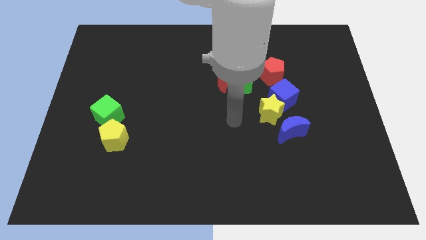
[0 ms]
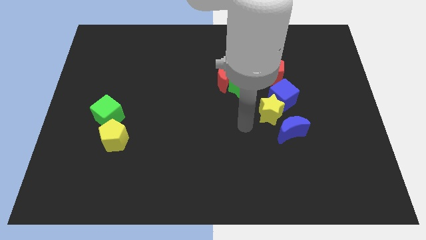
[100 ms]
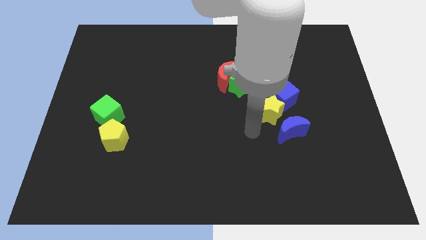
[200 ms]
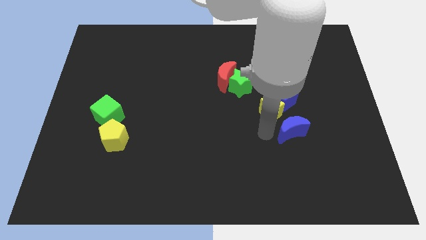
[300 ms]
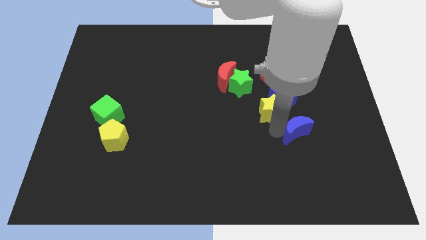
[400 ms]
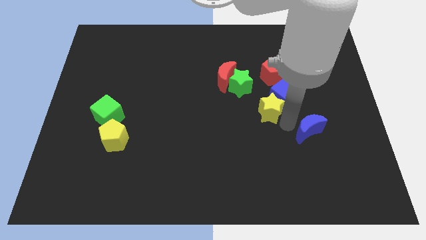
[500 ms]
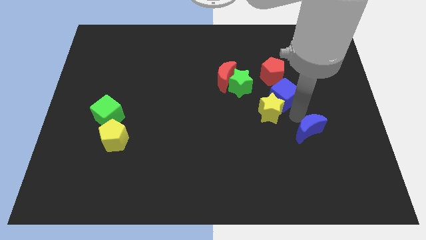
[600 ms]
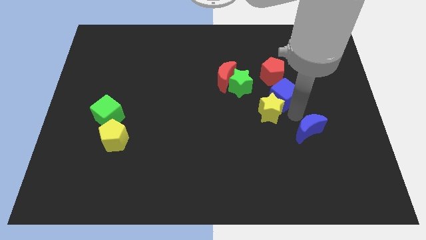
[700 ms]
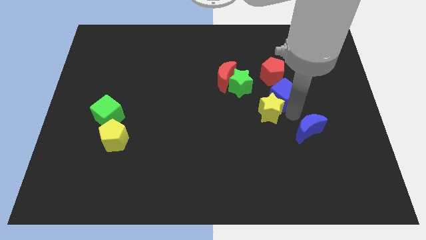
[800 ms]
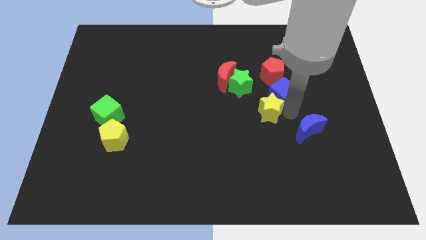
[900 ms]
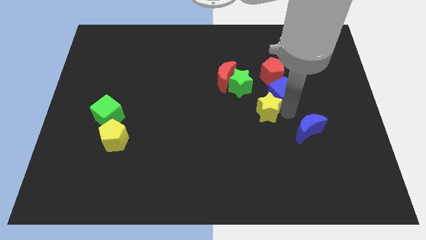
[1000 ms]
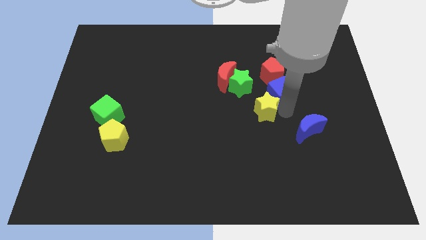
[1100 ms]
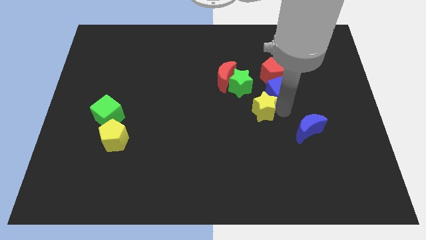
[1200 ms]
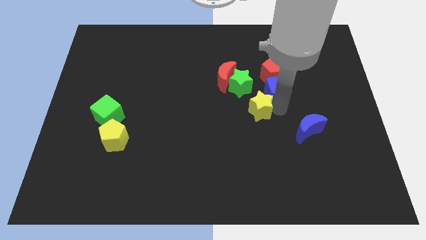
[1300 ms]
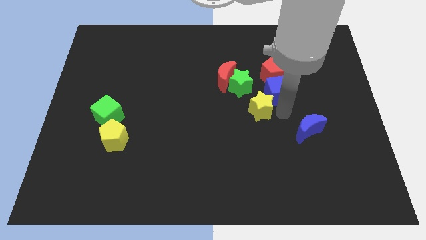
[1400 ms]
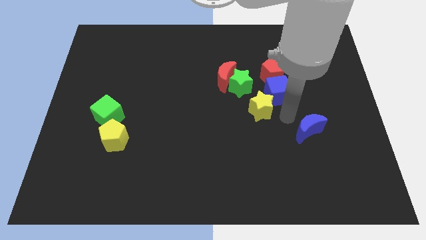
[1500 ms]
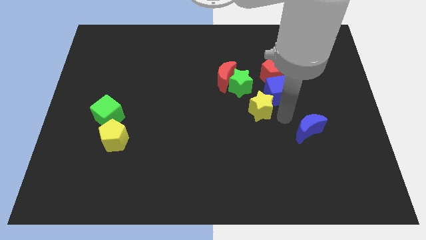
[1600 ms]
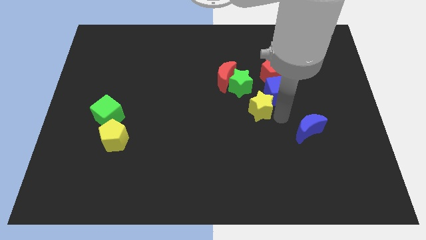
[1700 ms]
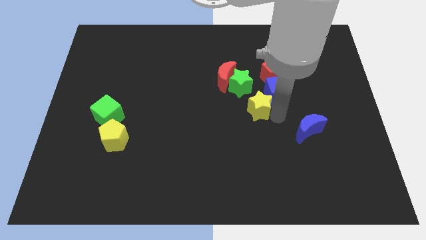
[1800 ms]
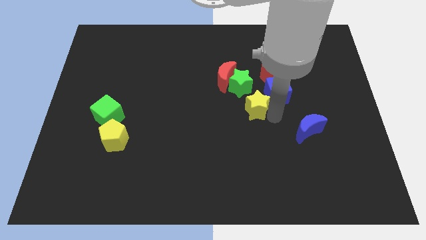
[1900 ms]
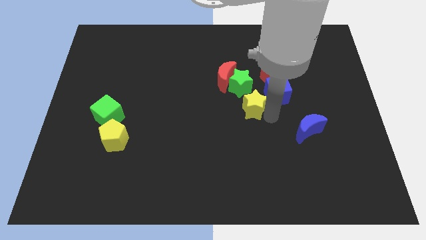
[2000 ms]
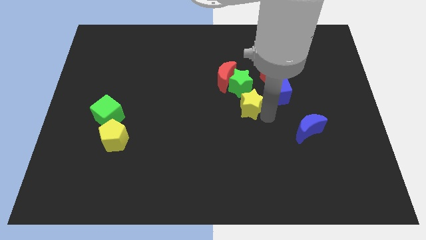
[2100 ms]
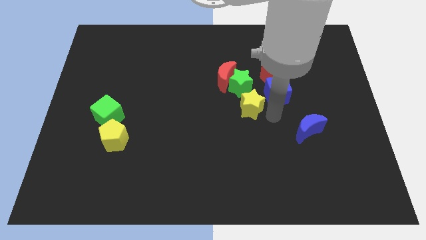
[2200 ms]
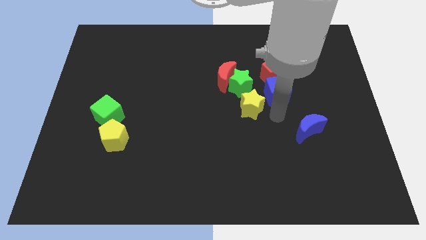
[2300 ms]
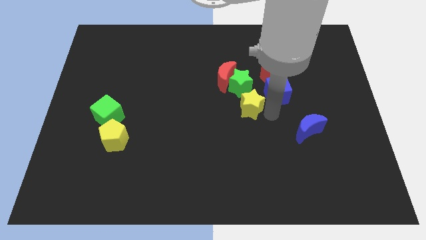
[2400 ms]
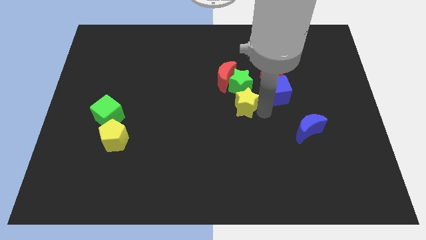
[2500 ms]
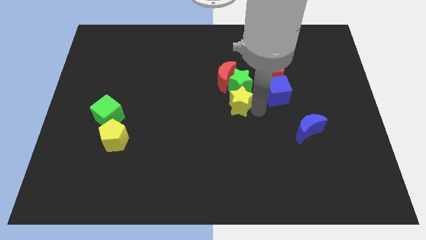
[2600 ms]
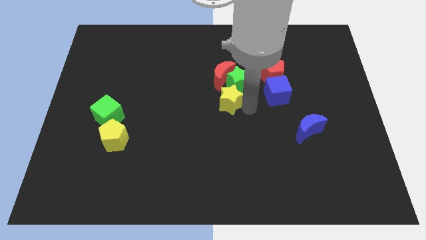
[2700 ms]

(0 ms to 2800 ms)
slightly push the yellow star up and then to the left

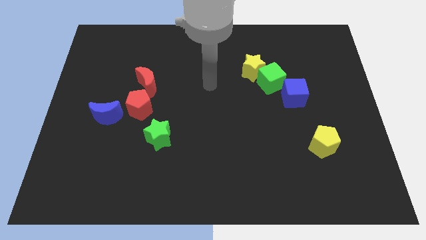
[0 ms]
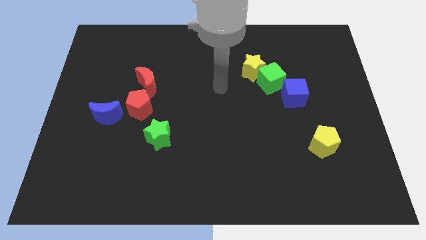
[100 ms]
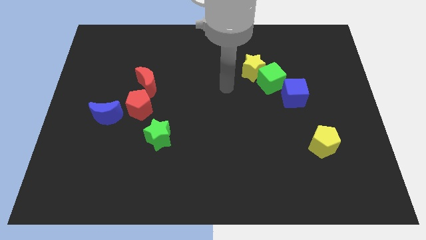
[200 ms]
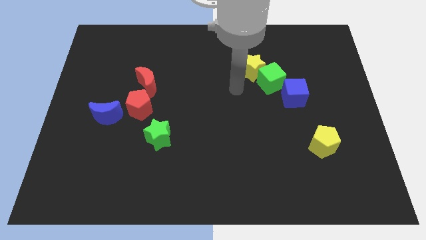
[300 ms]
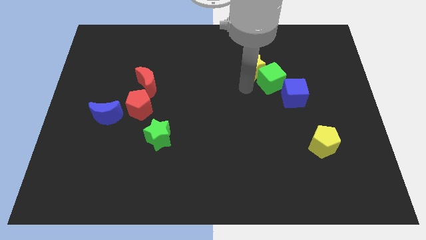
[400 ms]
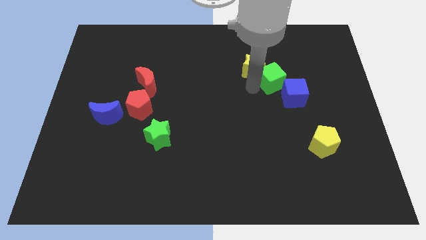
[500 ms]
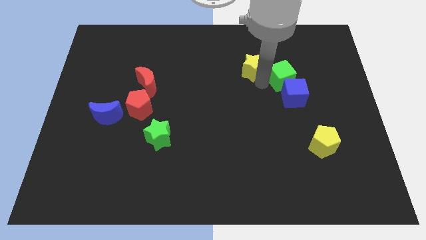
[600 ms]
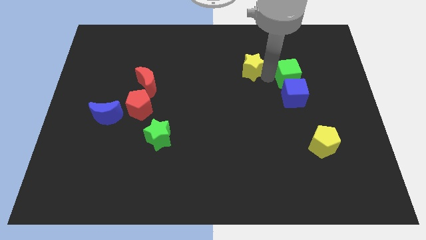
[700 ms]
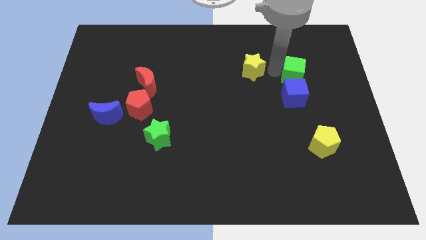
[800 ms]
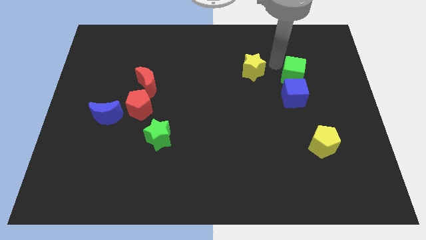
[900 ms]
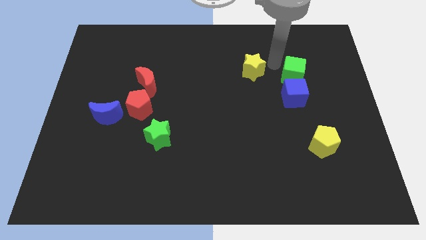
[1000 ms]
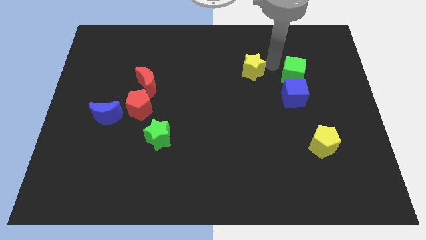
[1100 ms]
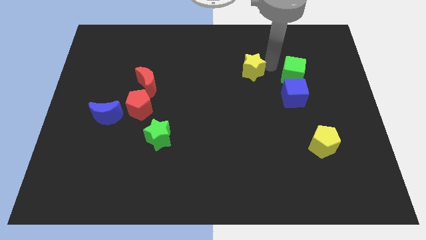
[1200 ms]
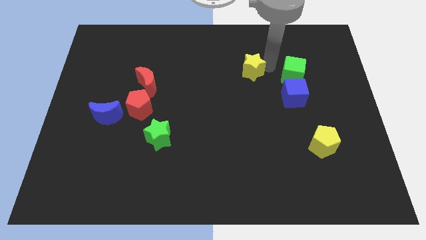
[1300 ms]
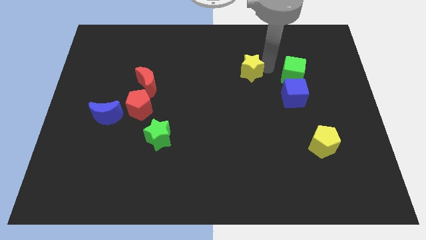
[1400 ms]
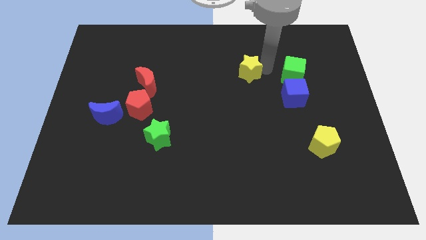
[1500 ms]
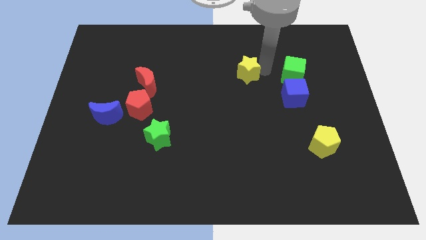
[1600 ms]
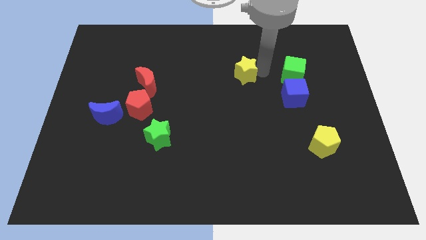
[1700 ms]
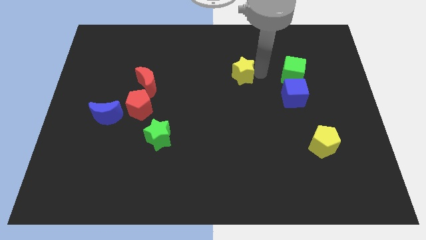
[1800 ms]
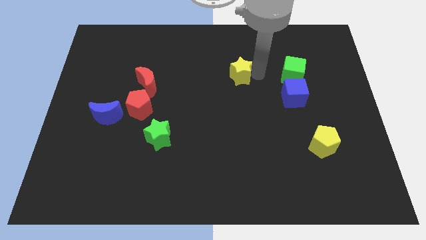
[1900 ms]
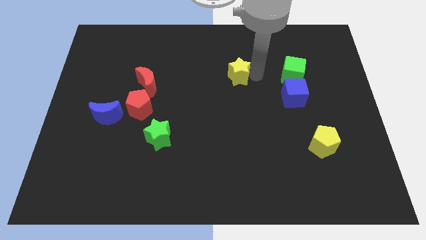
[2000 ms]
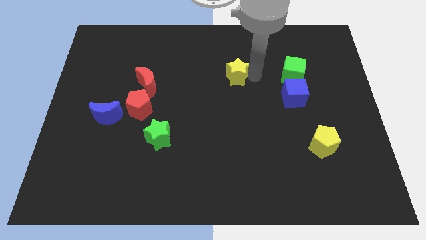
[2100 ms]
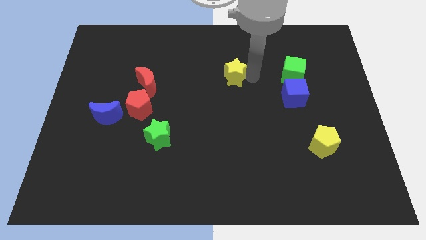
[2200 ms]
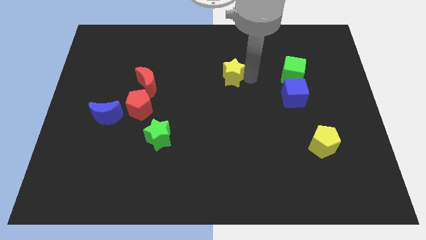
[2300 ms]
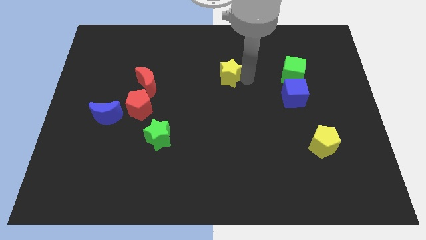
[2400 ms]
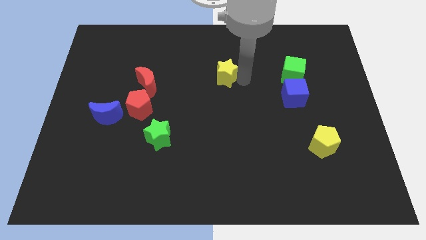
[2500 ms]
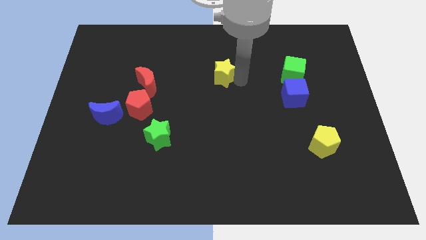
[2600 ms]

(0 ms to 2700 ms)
slide the yellow star slightly to the left

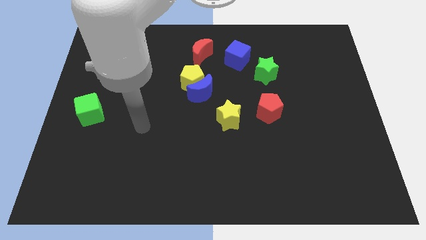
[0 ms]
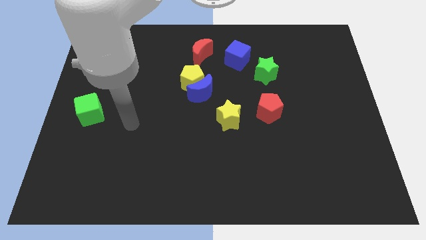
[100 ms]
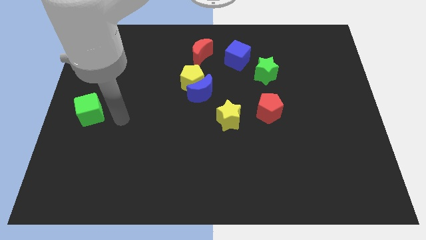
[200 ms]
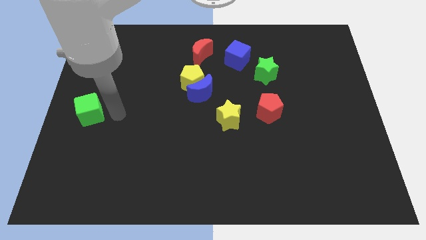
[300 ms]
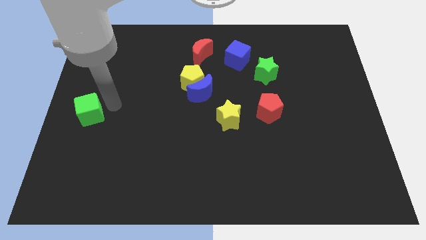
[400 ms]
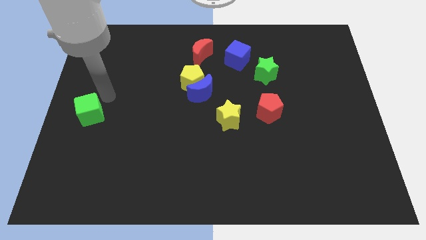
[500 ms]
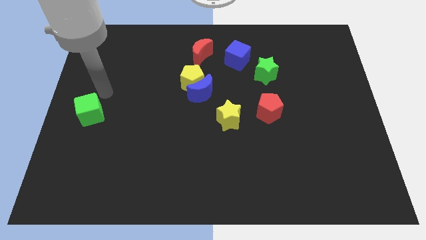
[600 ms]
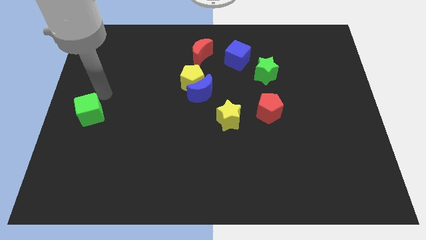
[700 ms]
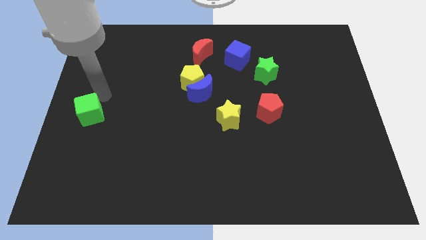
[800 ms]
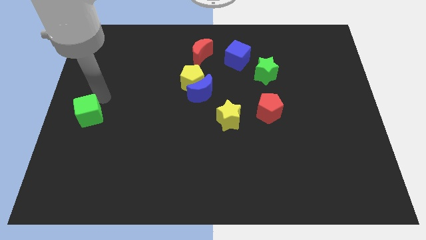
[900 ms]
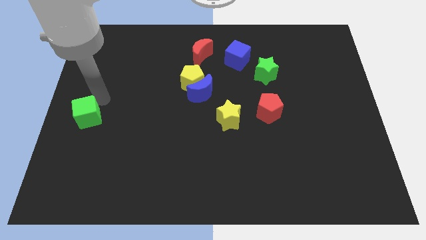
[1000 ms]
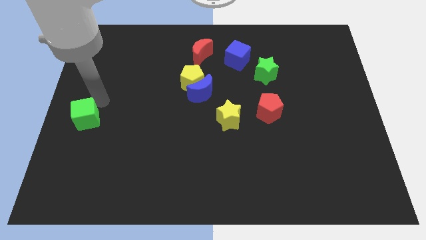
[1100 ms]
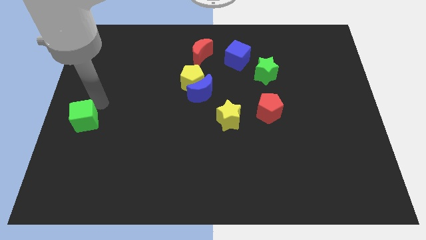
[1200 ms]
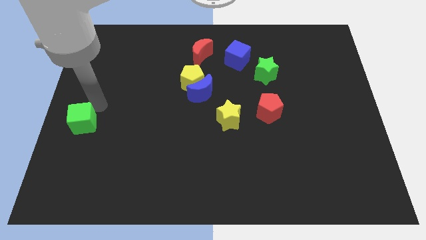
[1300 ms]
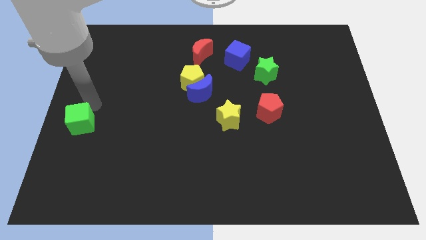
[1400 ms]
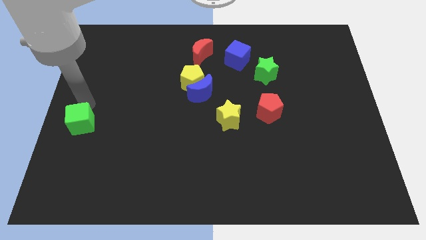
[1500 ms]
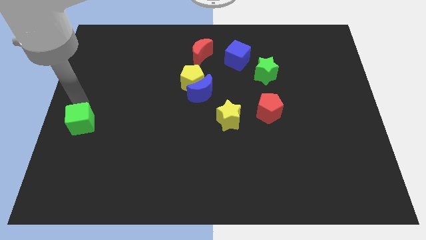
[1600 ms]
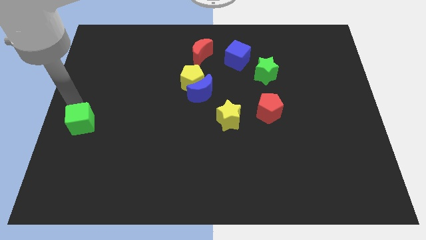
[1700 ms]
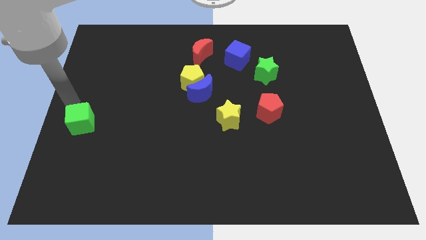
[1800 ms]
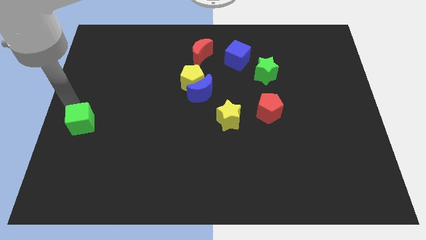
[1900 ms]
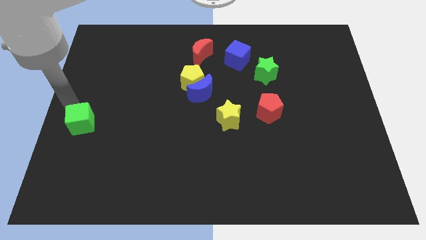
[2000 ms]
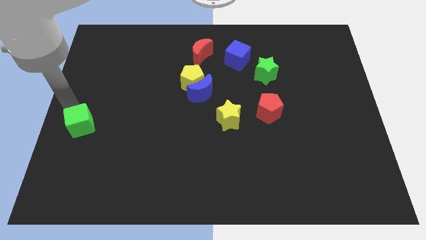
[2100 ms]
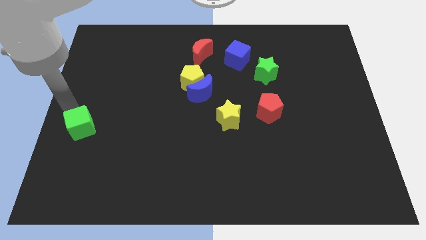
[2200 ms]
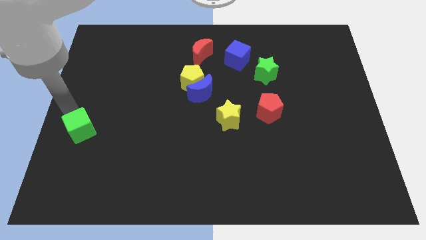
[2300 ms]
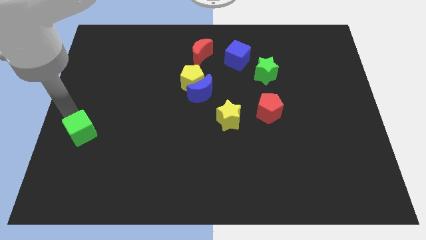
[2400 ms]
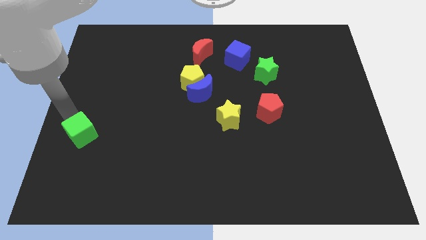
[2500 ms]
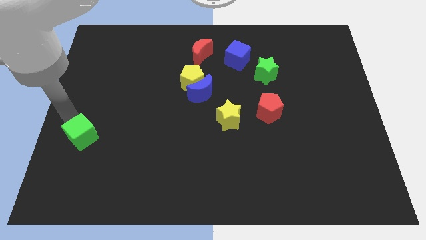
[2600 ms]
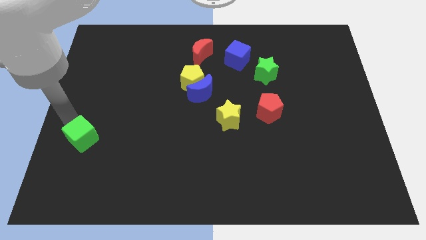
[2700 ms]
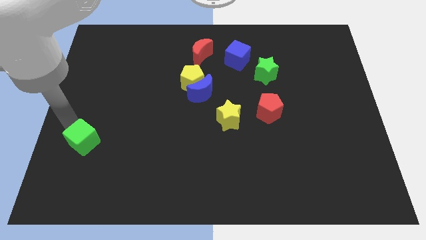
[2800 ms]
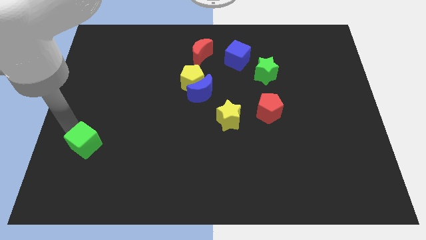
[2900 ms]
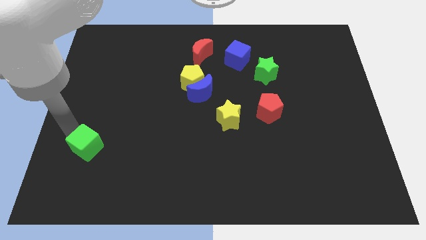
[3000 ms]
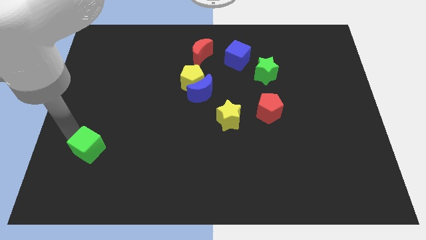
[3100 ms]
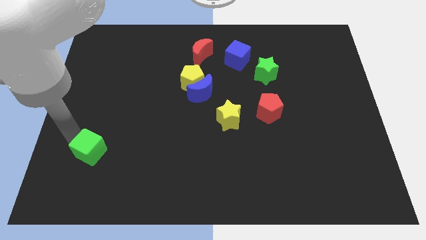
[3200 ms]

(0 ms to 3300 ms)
slightly slide the green cube downwards and to the right
